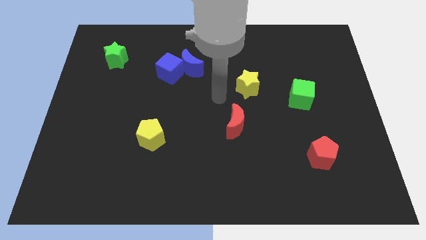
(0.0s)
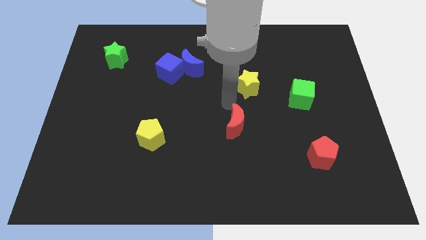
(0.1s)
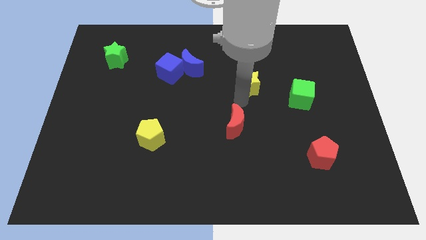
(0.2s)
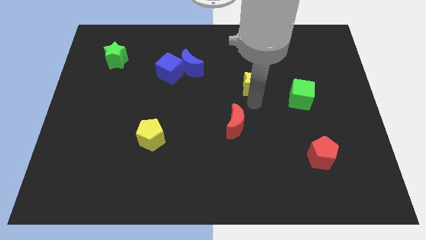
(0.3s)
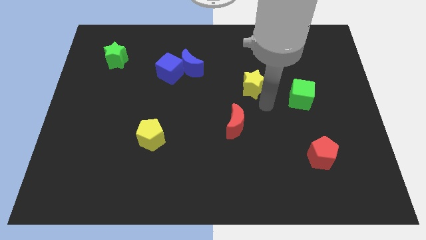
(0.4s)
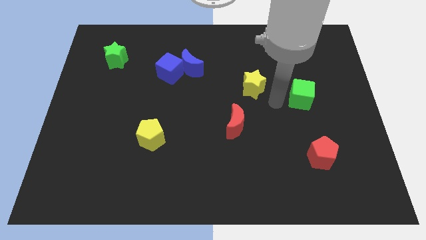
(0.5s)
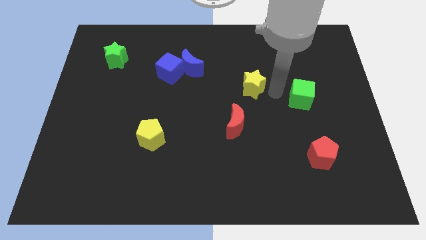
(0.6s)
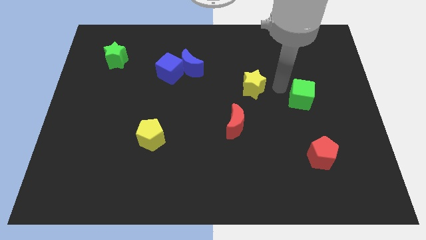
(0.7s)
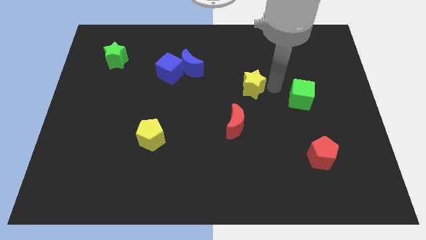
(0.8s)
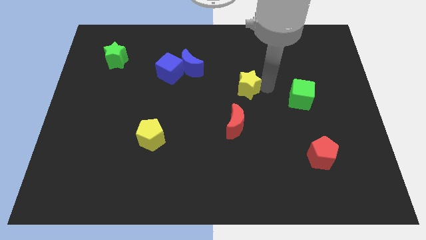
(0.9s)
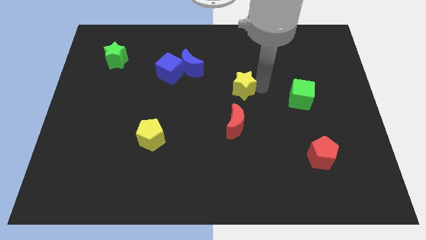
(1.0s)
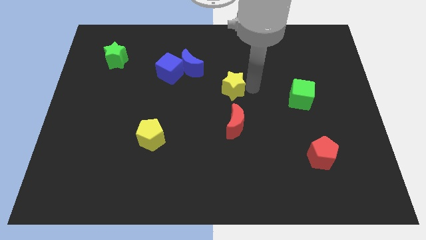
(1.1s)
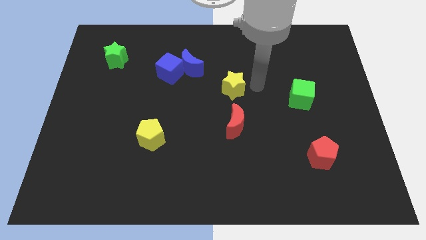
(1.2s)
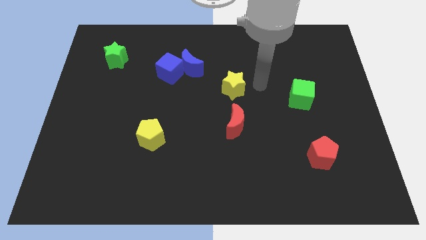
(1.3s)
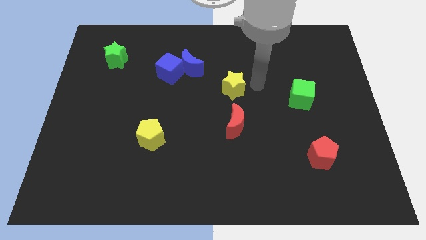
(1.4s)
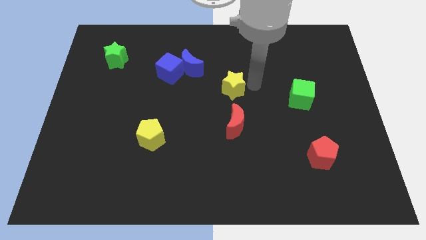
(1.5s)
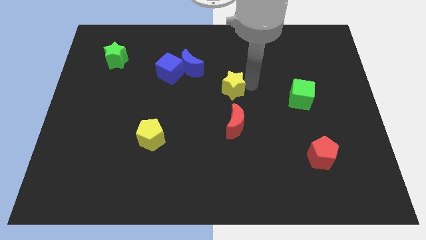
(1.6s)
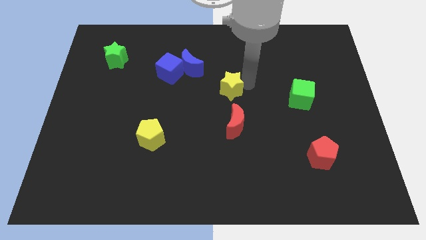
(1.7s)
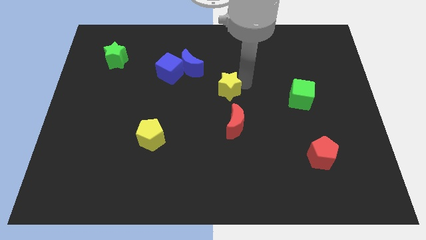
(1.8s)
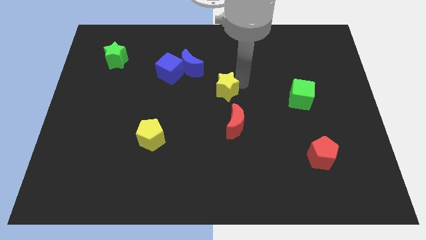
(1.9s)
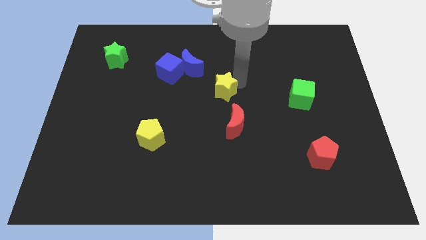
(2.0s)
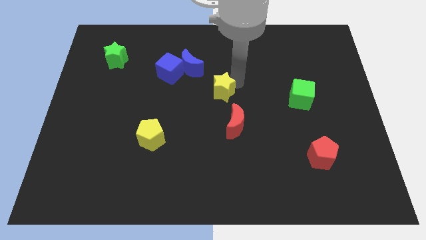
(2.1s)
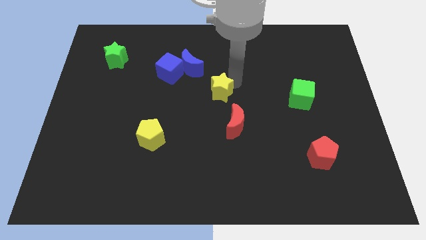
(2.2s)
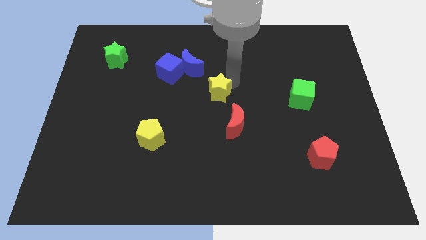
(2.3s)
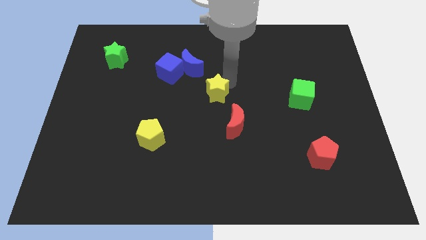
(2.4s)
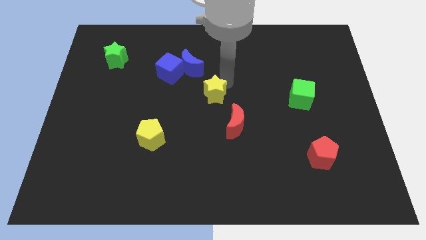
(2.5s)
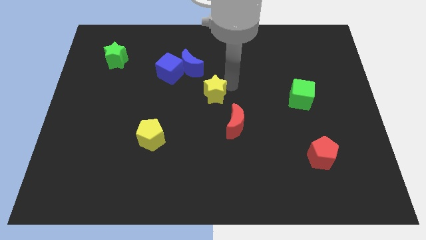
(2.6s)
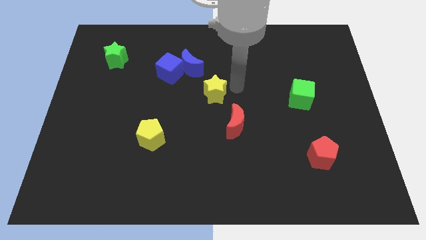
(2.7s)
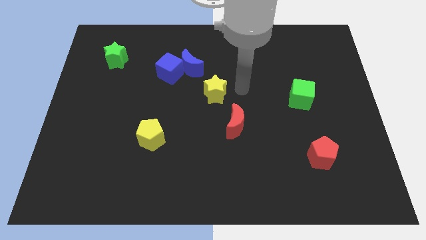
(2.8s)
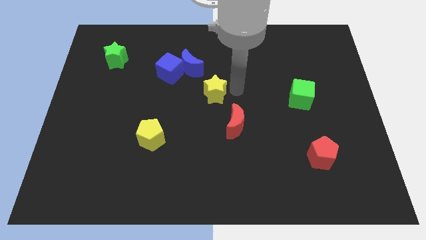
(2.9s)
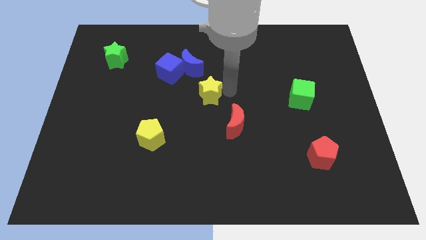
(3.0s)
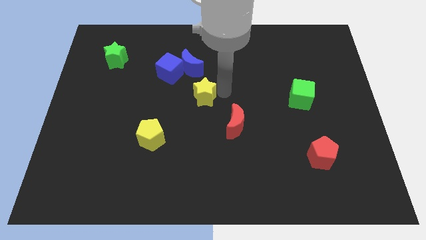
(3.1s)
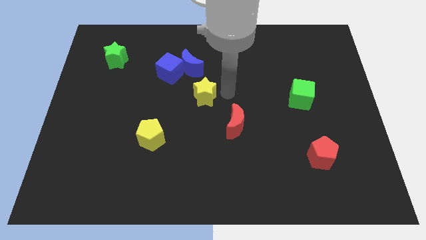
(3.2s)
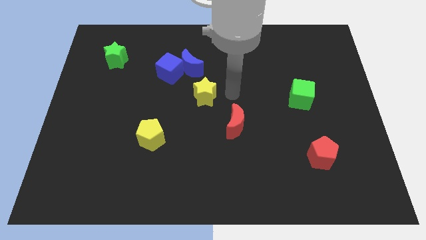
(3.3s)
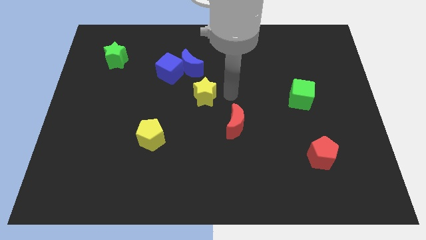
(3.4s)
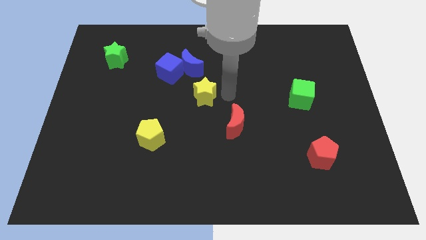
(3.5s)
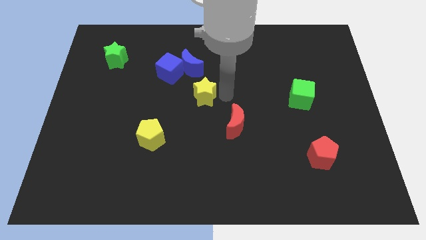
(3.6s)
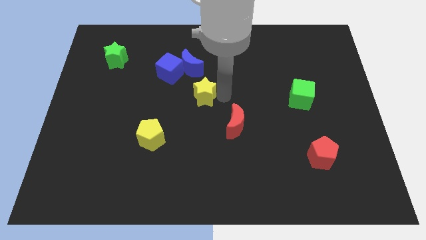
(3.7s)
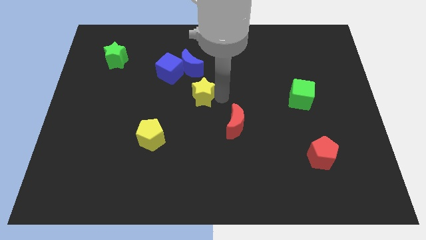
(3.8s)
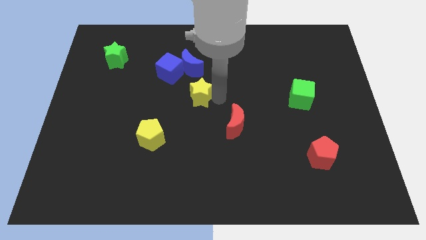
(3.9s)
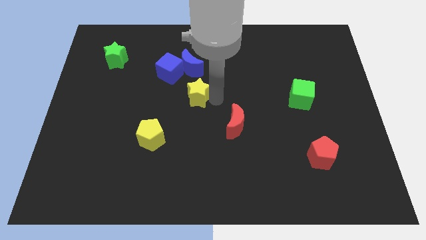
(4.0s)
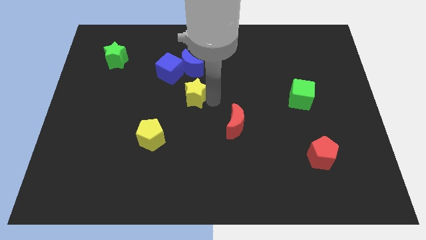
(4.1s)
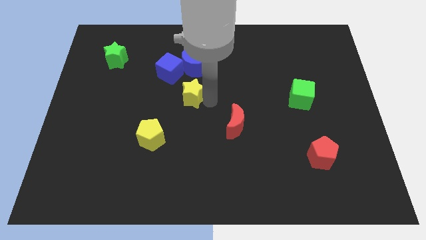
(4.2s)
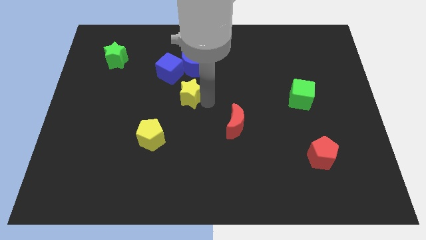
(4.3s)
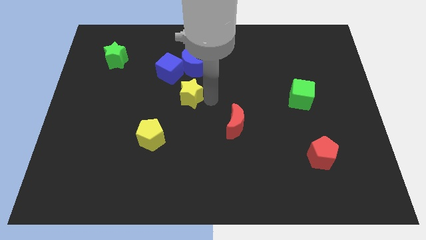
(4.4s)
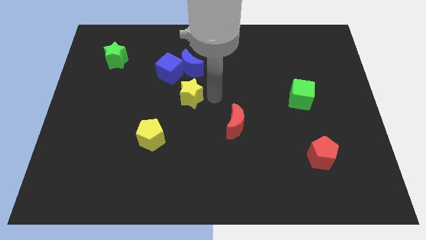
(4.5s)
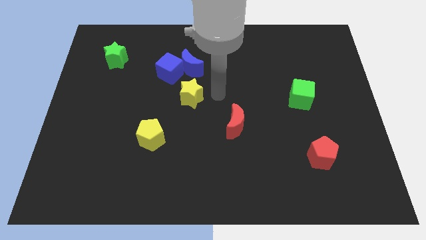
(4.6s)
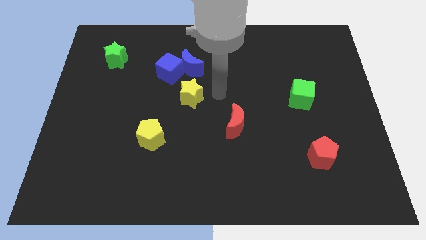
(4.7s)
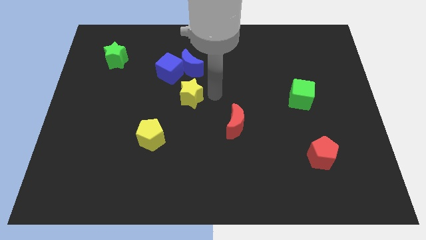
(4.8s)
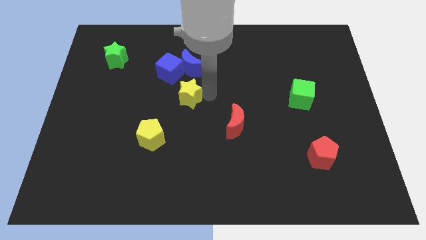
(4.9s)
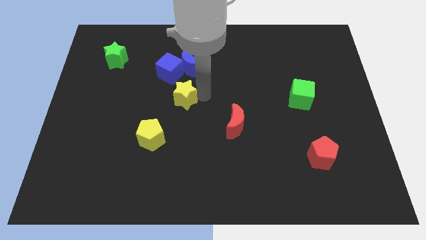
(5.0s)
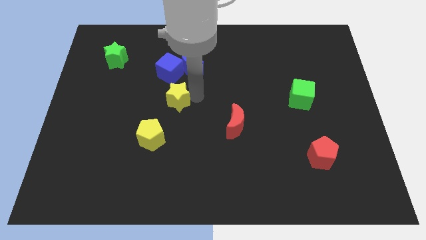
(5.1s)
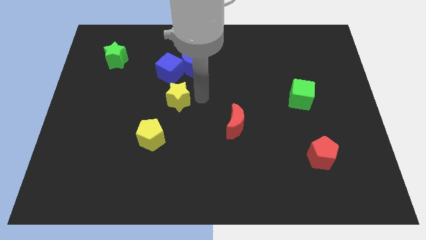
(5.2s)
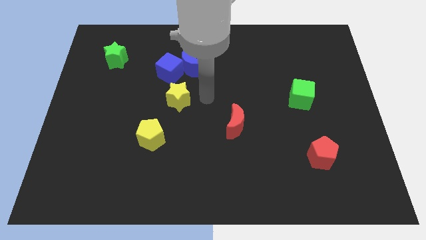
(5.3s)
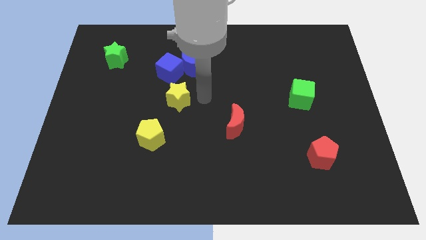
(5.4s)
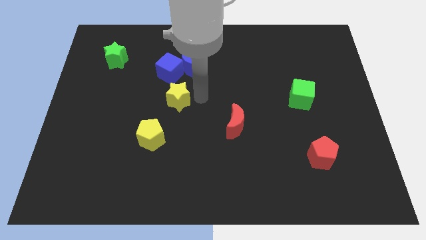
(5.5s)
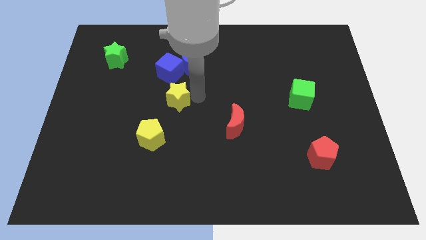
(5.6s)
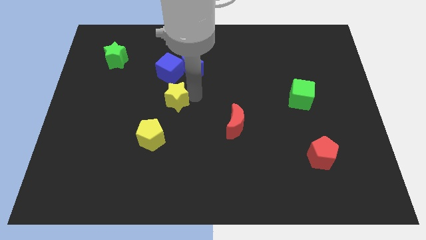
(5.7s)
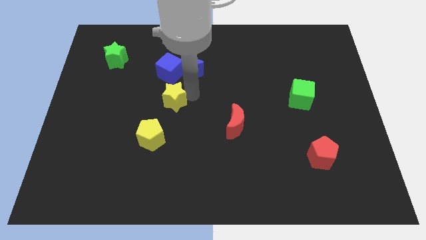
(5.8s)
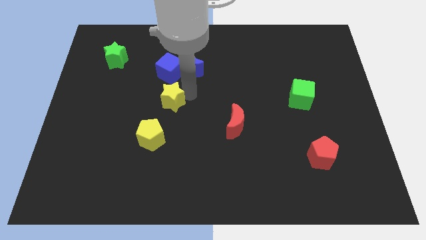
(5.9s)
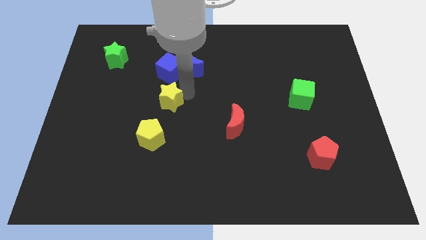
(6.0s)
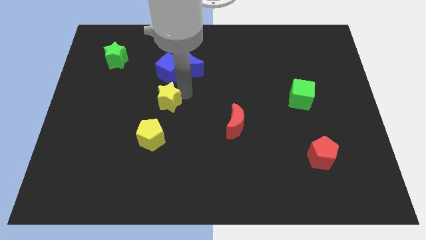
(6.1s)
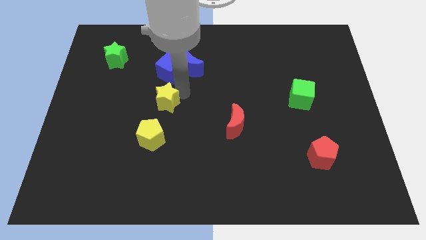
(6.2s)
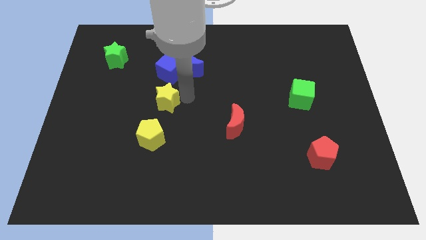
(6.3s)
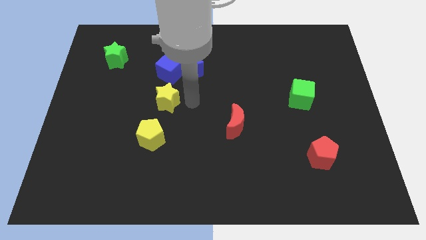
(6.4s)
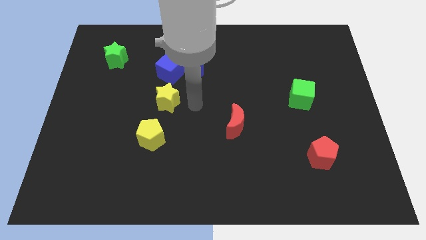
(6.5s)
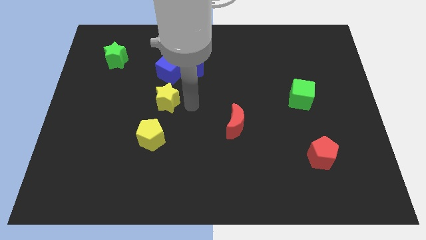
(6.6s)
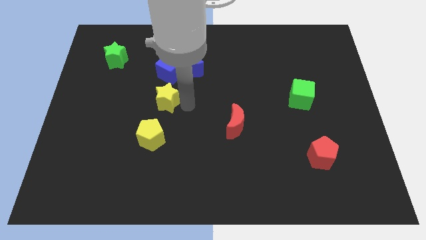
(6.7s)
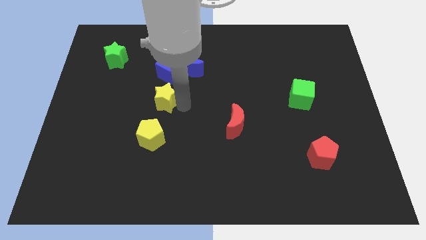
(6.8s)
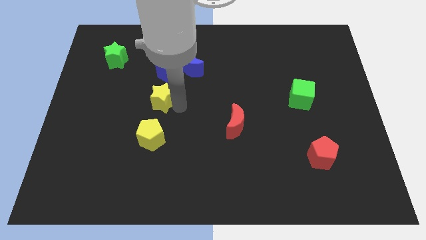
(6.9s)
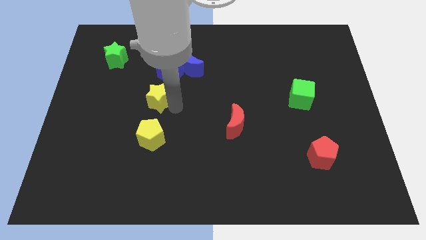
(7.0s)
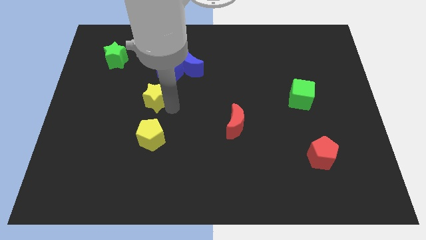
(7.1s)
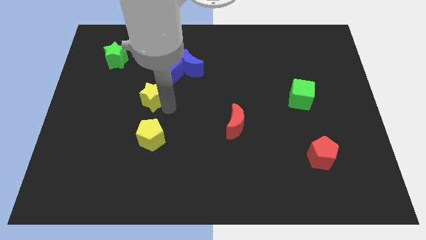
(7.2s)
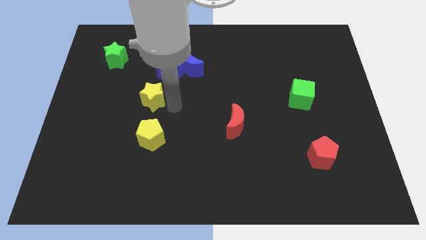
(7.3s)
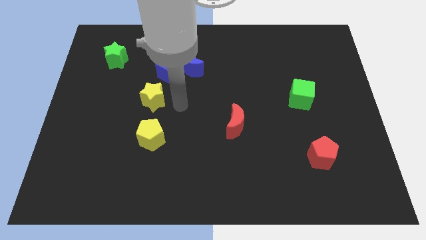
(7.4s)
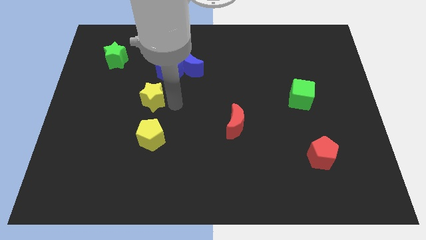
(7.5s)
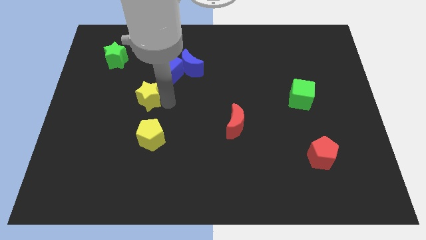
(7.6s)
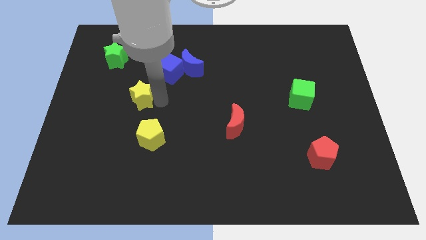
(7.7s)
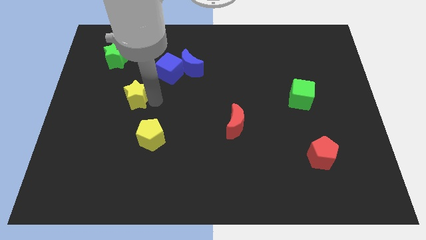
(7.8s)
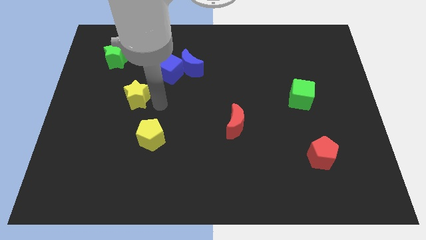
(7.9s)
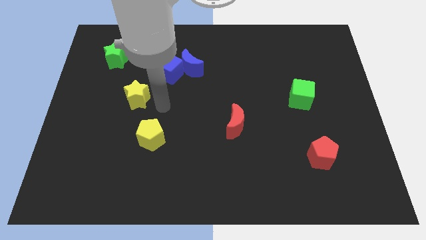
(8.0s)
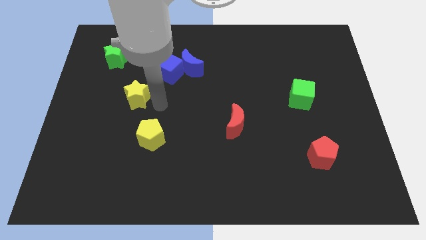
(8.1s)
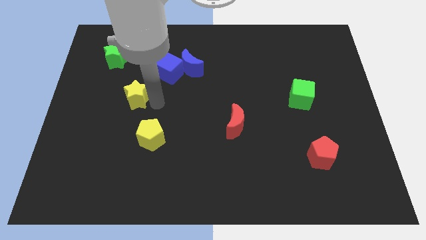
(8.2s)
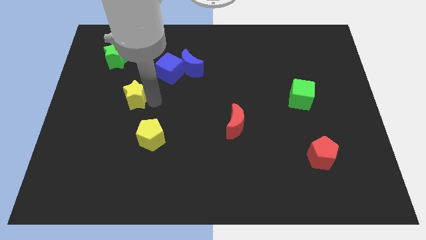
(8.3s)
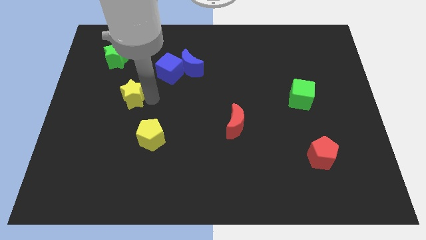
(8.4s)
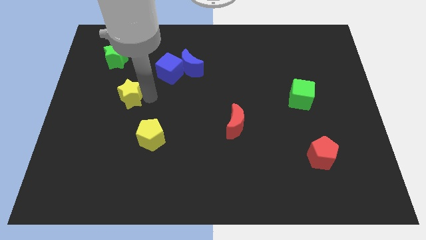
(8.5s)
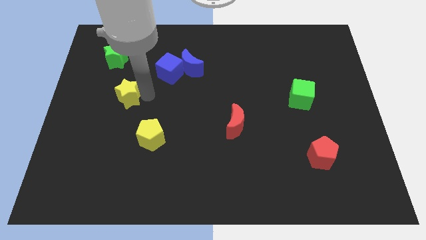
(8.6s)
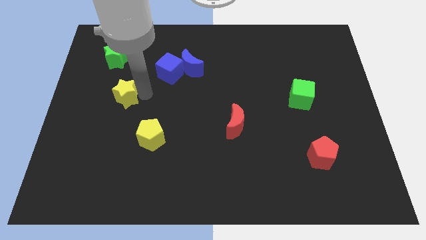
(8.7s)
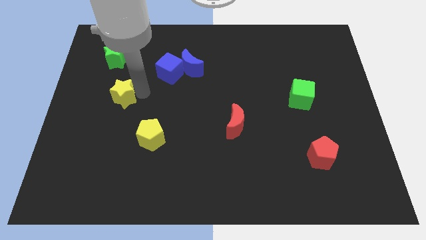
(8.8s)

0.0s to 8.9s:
move the yellow star to the bottom side of the green star
